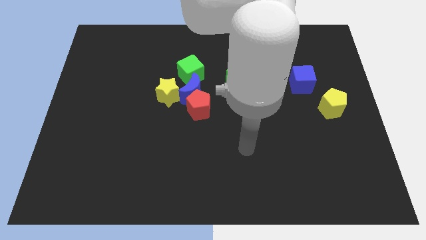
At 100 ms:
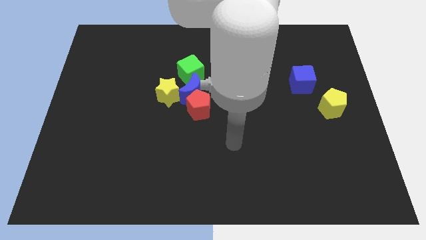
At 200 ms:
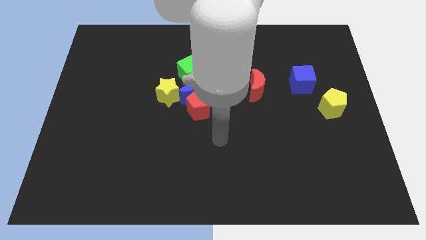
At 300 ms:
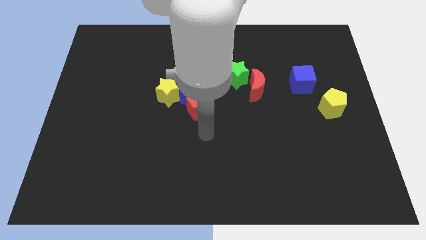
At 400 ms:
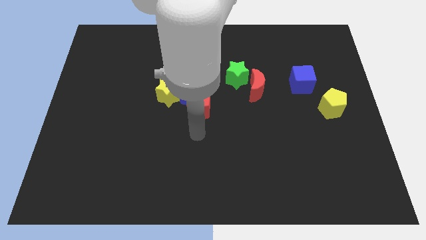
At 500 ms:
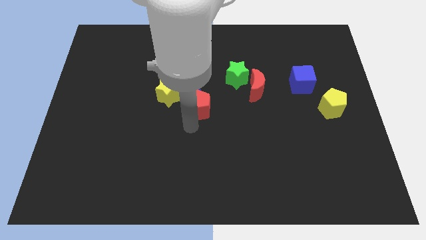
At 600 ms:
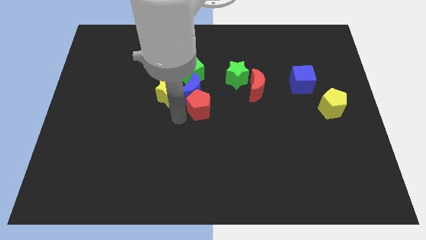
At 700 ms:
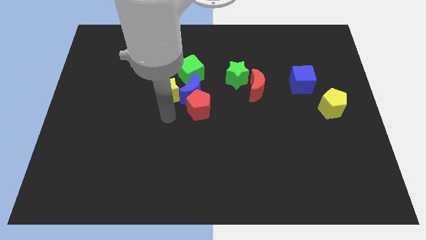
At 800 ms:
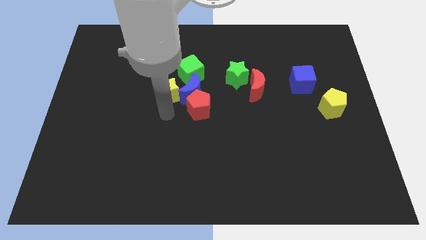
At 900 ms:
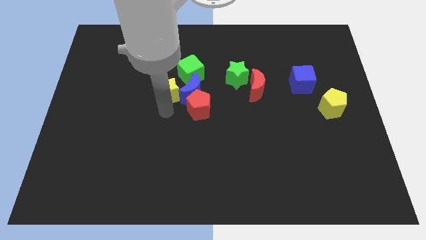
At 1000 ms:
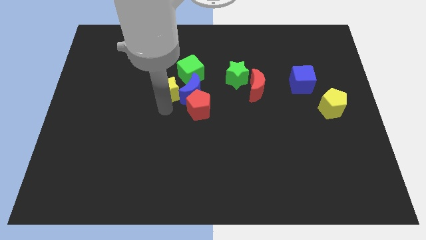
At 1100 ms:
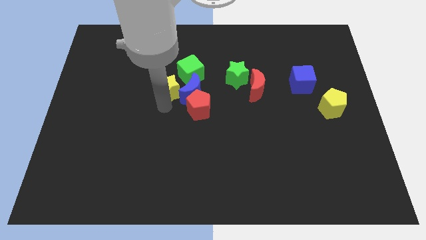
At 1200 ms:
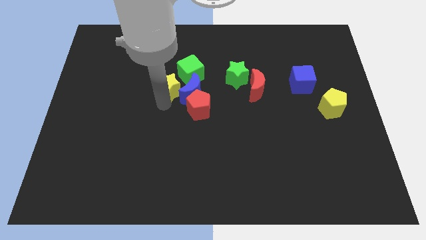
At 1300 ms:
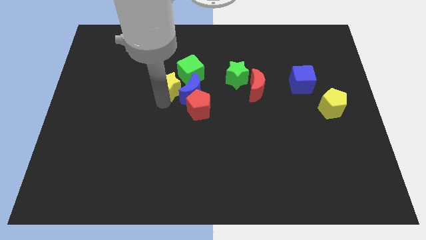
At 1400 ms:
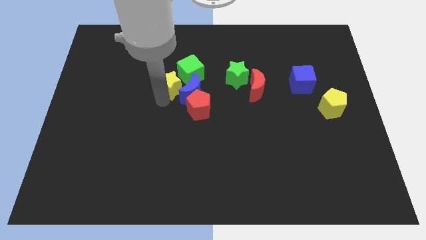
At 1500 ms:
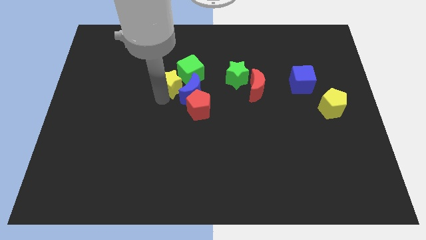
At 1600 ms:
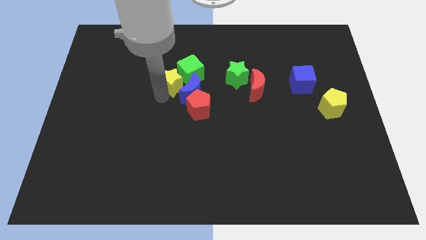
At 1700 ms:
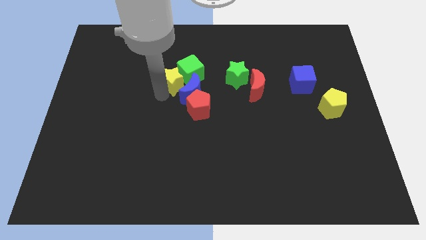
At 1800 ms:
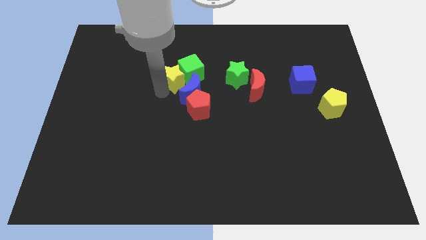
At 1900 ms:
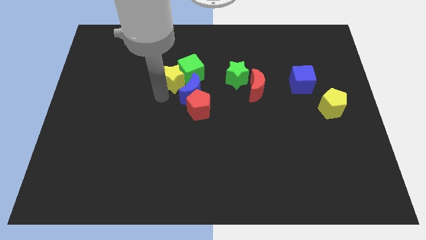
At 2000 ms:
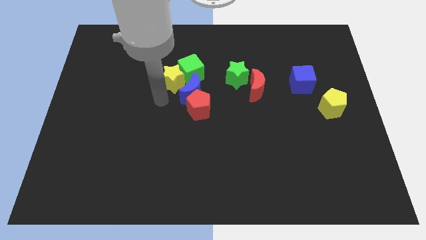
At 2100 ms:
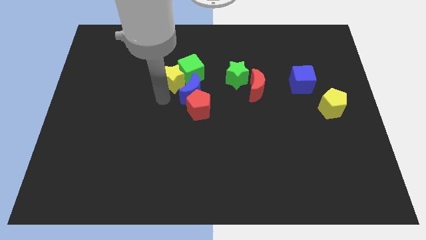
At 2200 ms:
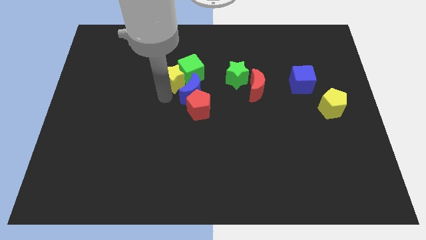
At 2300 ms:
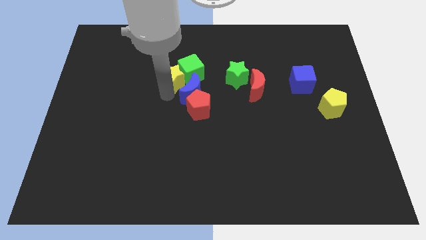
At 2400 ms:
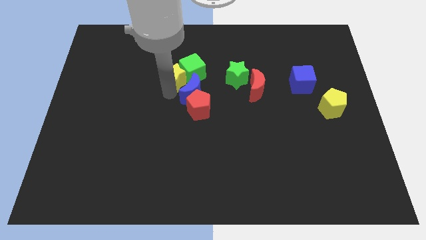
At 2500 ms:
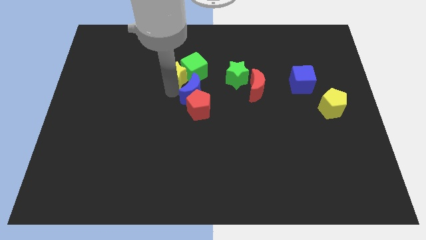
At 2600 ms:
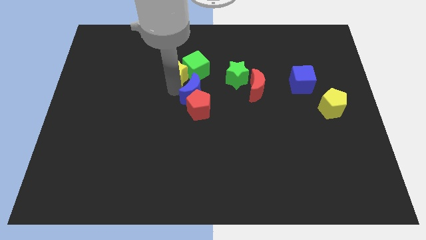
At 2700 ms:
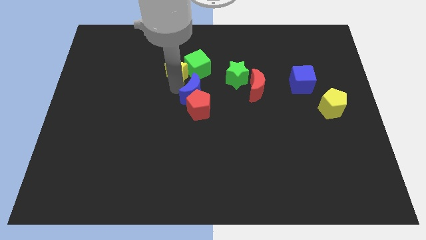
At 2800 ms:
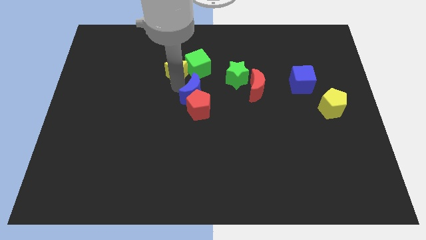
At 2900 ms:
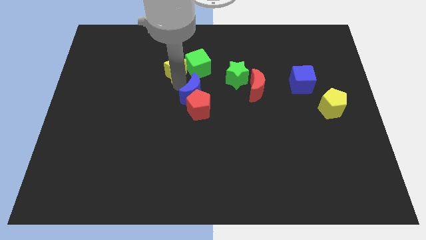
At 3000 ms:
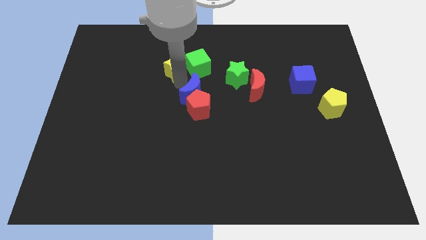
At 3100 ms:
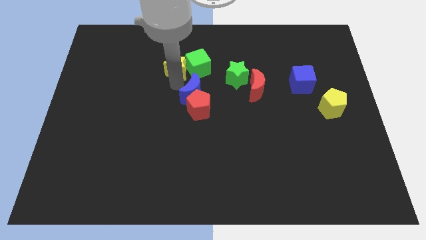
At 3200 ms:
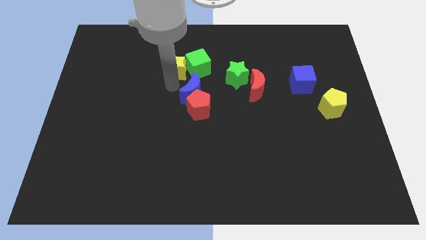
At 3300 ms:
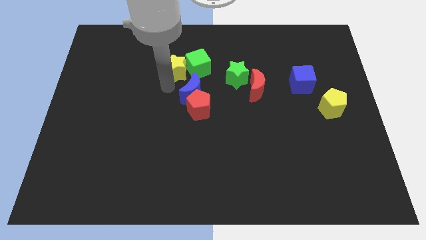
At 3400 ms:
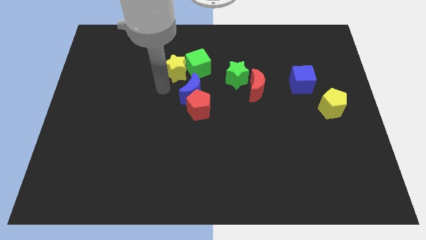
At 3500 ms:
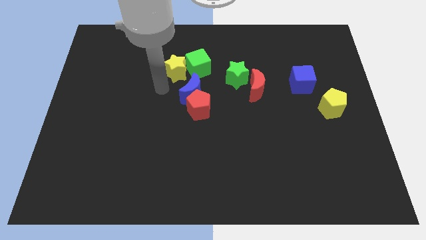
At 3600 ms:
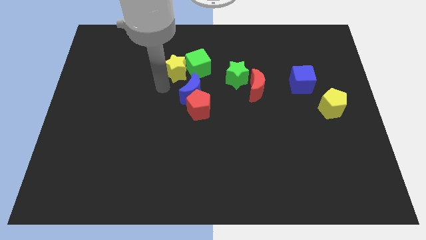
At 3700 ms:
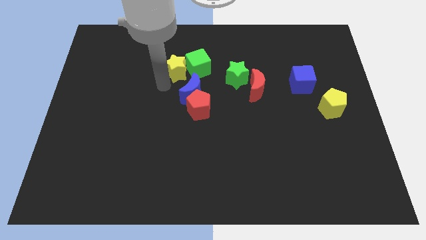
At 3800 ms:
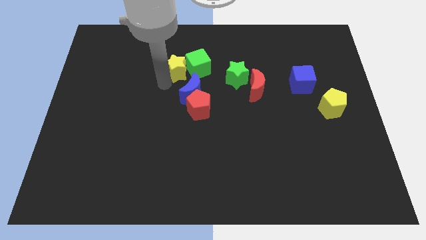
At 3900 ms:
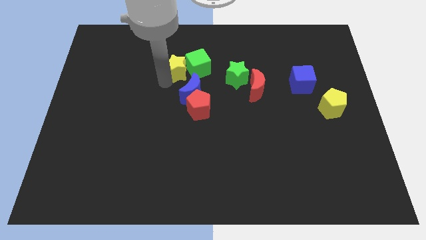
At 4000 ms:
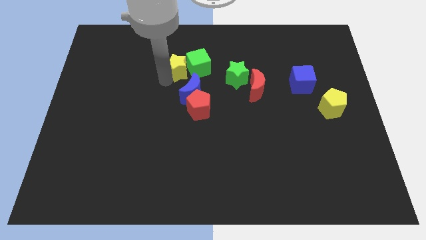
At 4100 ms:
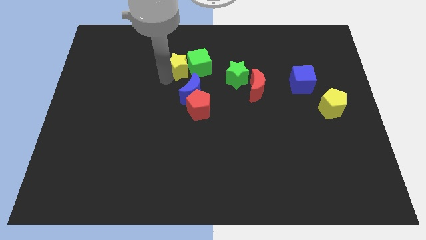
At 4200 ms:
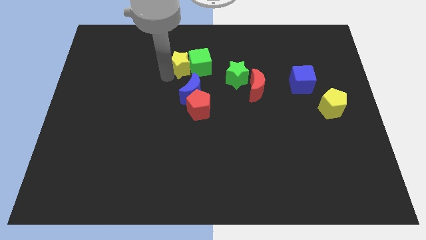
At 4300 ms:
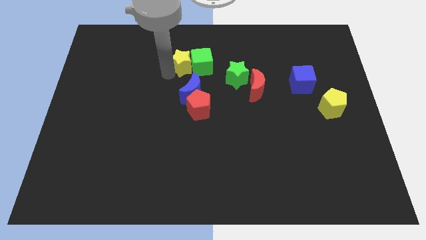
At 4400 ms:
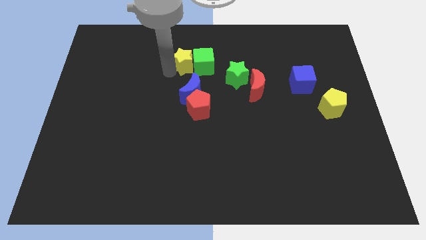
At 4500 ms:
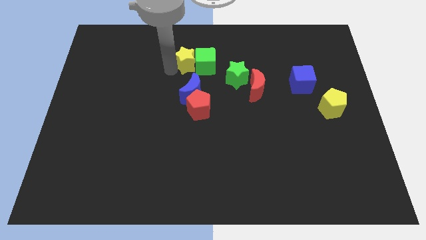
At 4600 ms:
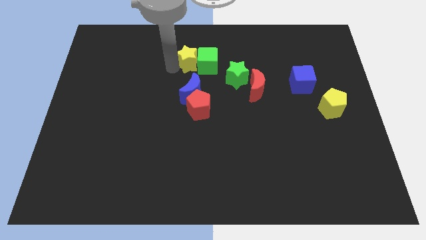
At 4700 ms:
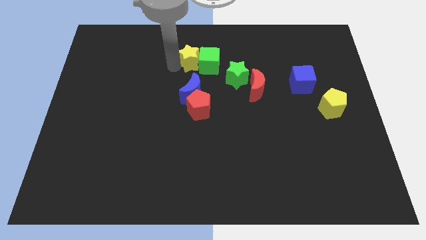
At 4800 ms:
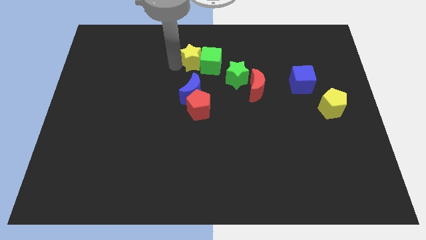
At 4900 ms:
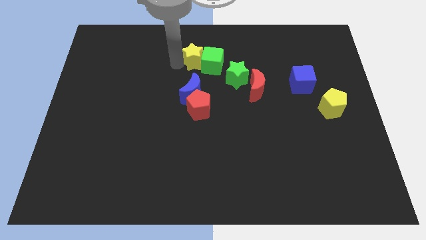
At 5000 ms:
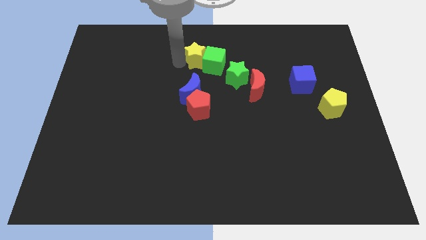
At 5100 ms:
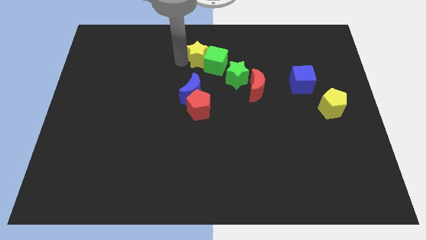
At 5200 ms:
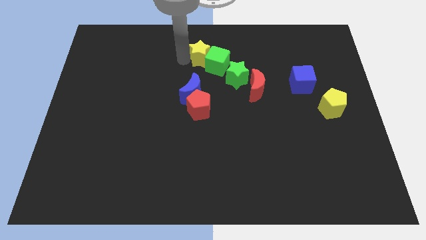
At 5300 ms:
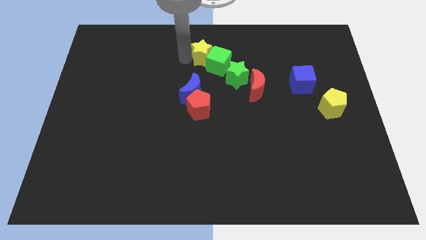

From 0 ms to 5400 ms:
push the yellow star to the towards your base
